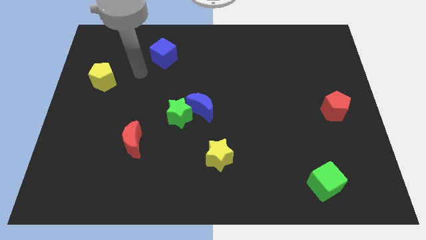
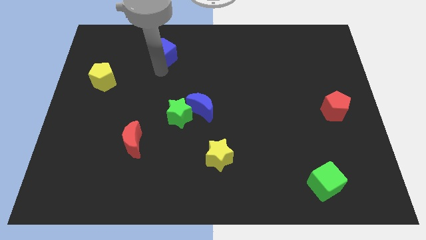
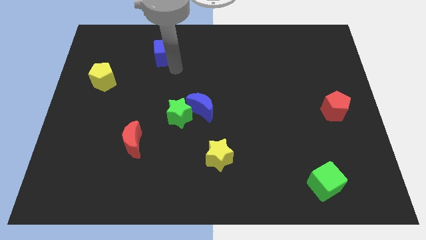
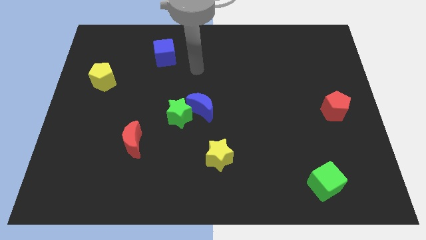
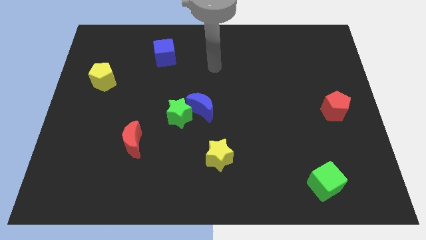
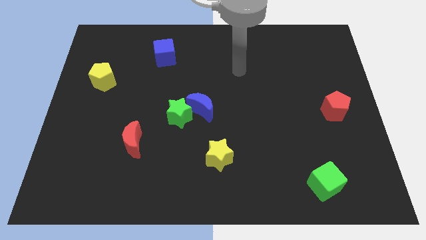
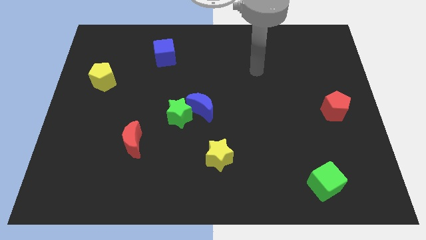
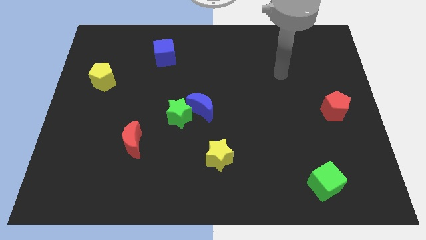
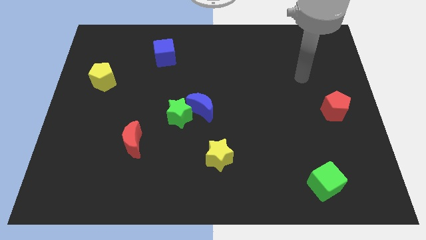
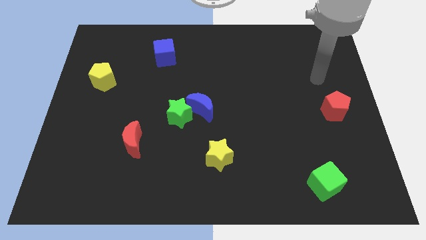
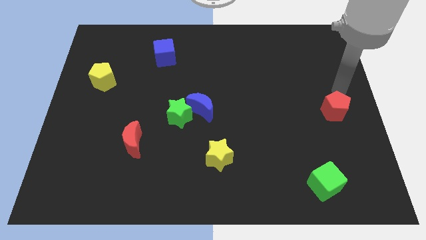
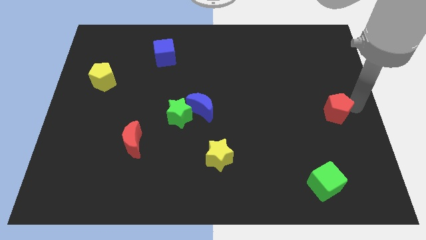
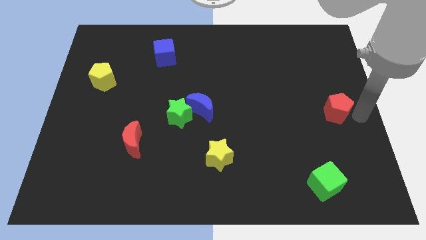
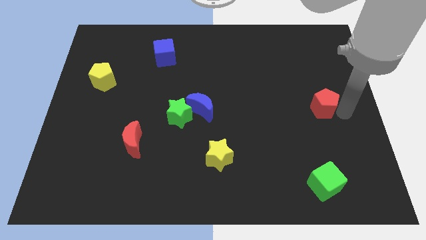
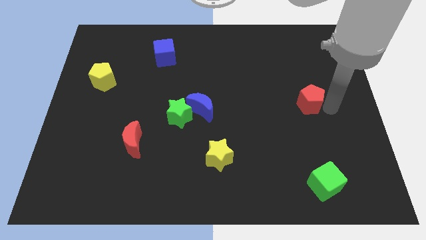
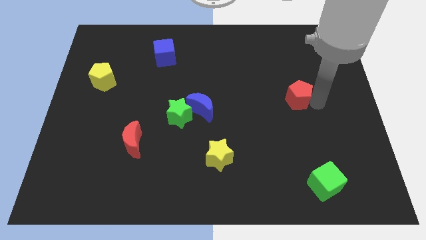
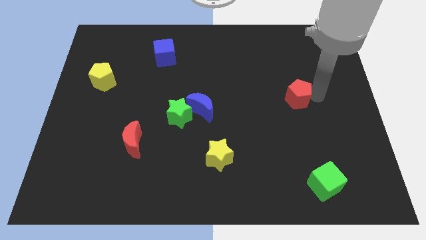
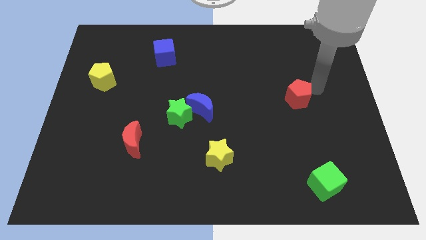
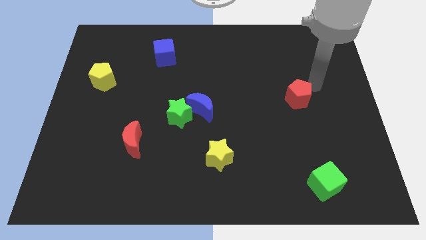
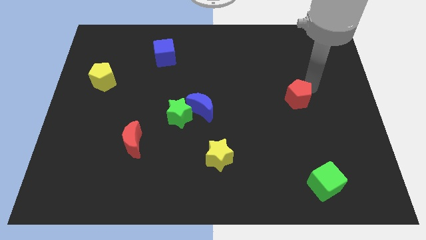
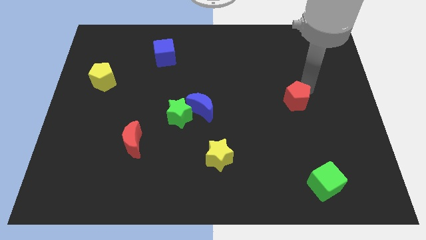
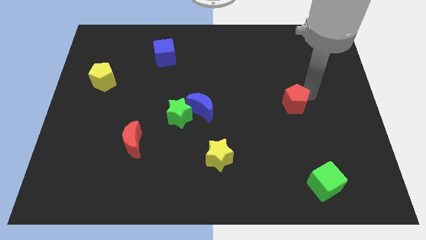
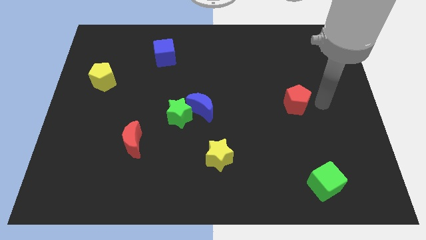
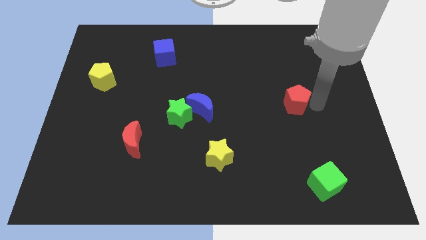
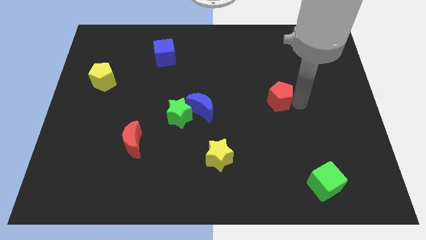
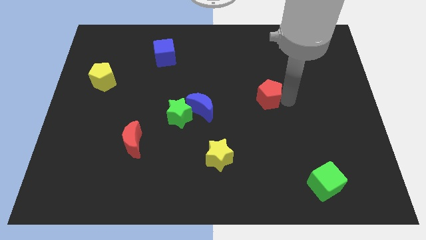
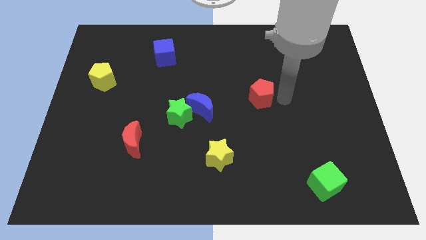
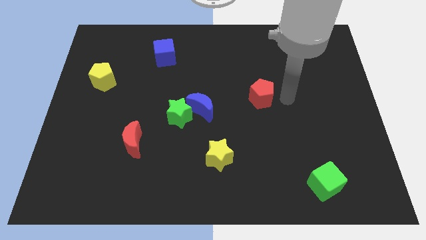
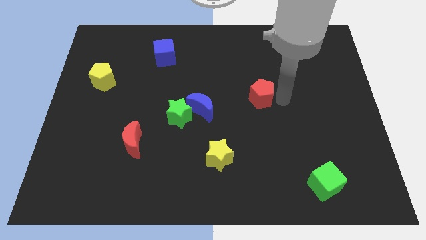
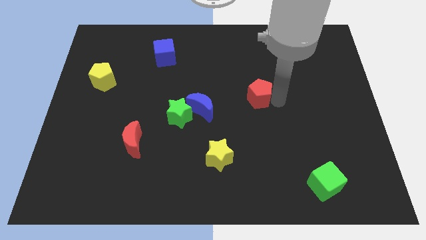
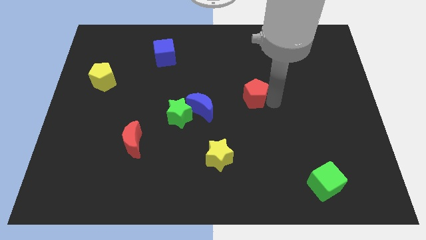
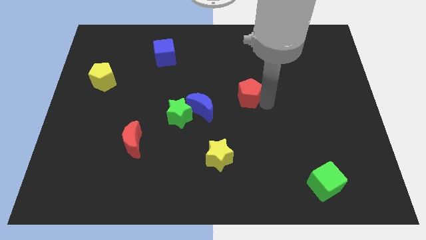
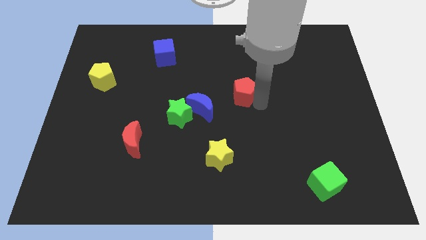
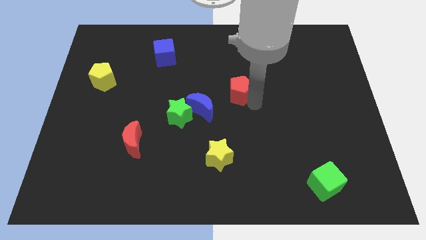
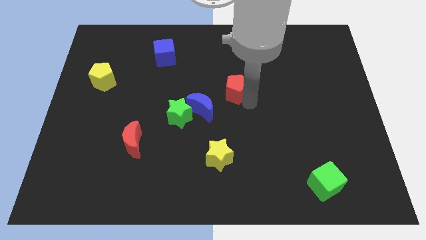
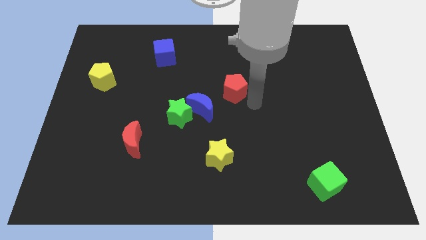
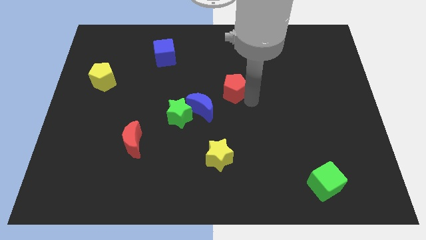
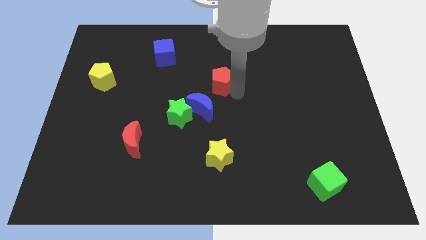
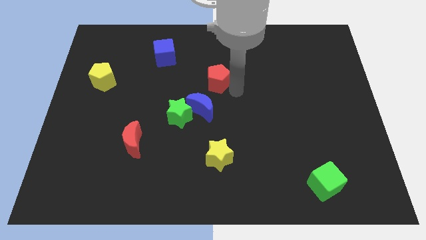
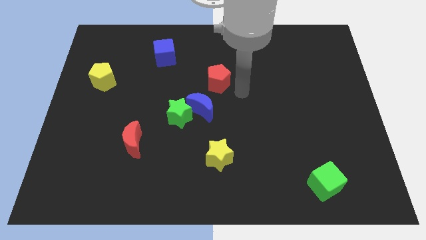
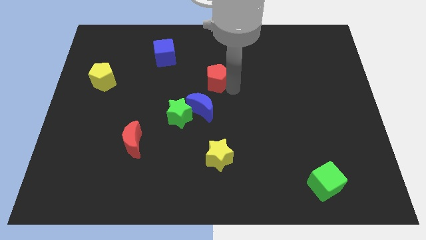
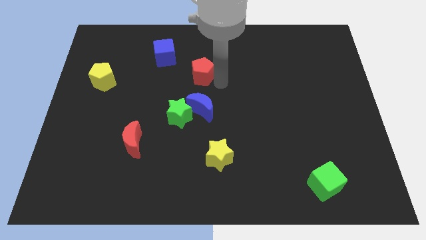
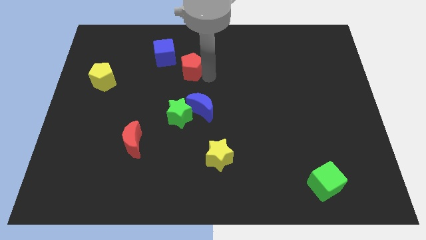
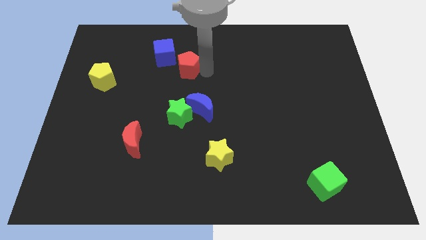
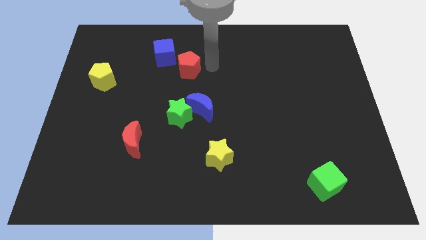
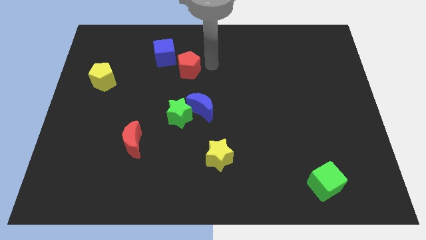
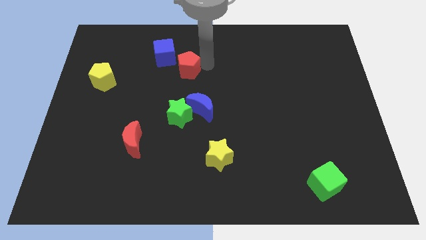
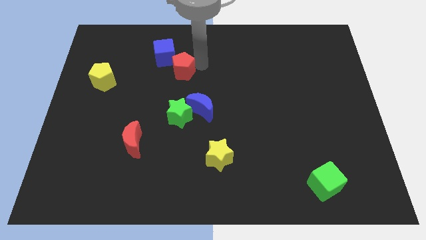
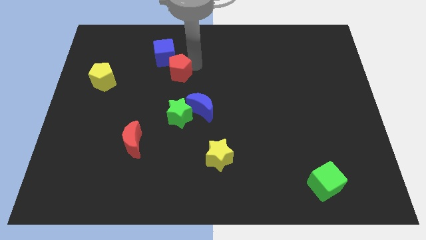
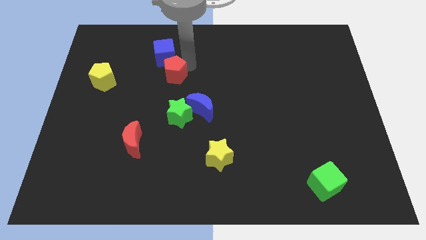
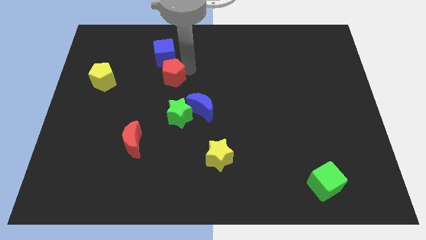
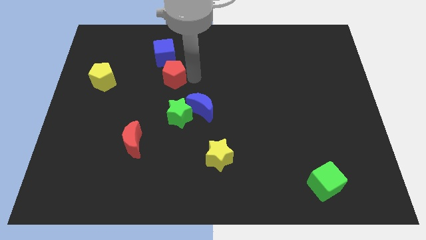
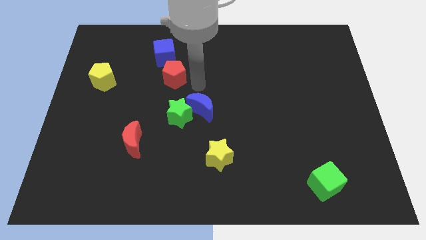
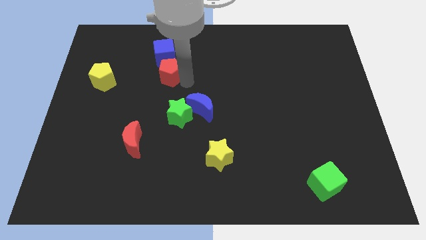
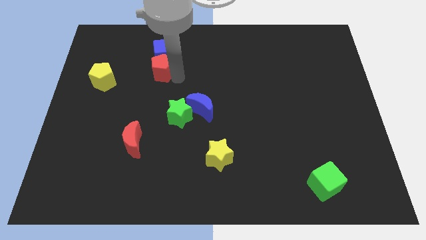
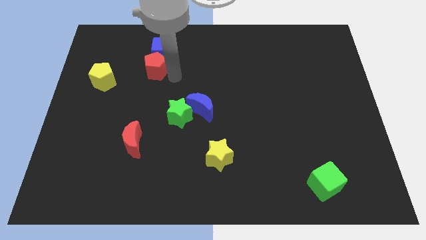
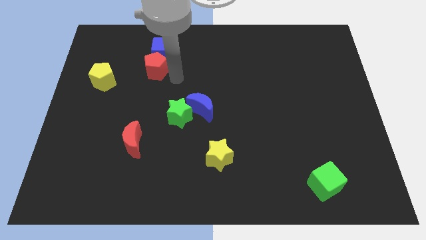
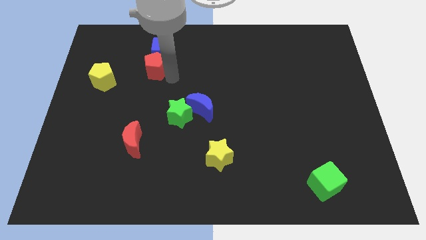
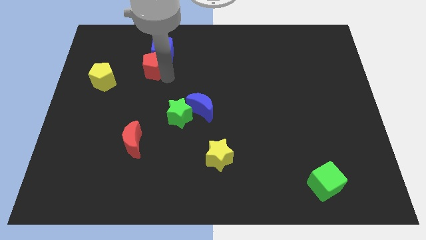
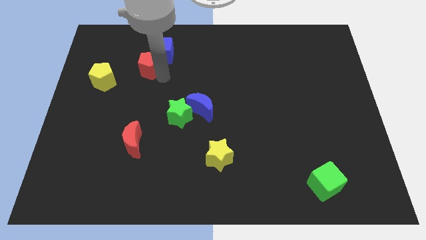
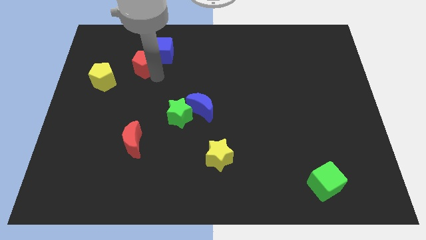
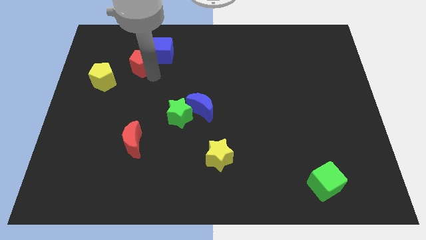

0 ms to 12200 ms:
slide the red pentagon left of the blue cube
